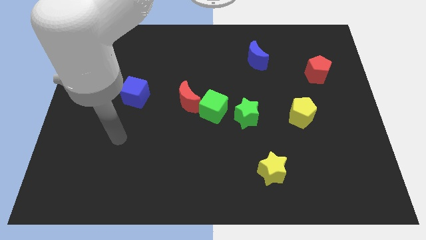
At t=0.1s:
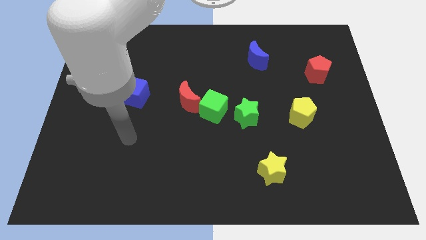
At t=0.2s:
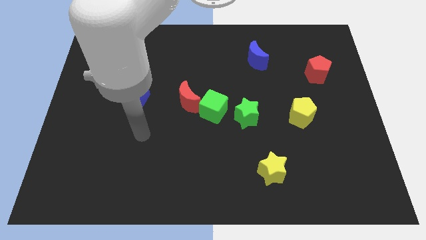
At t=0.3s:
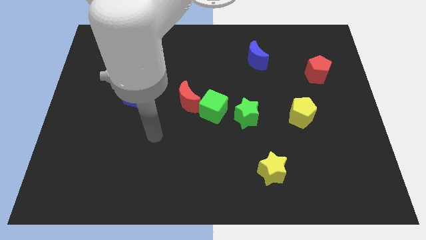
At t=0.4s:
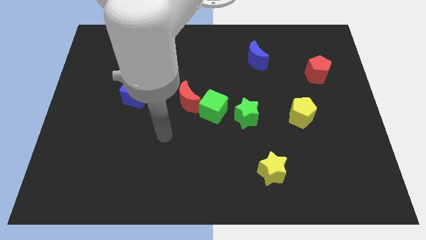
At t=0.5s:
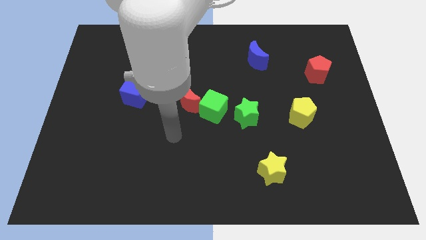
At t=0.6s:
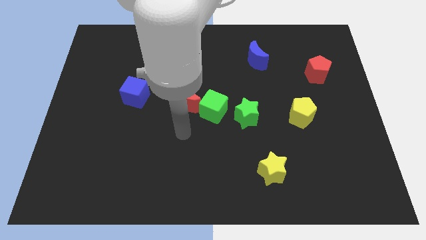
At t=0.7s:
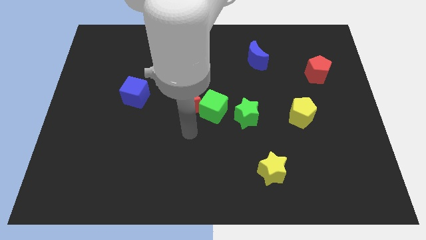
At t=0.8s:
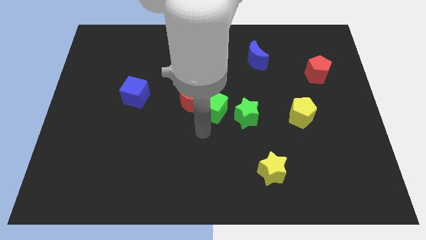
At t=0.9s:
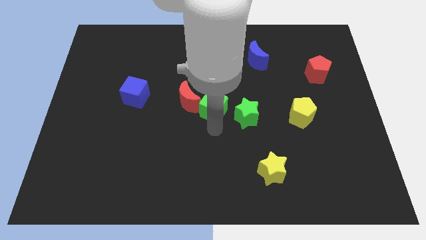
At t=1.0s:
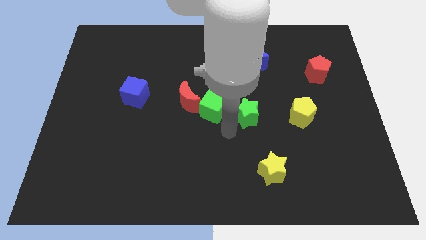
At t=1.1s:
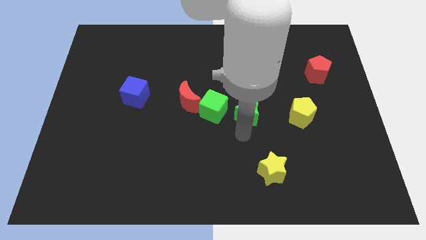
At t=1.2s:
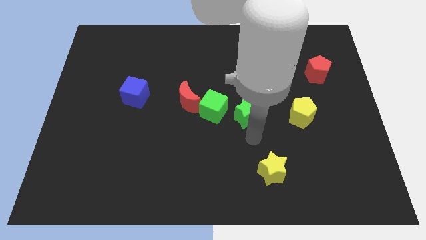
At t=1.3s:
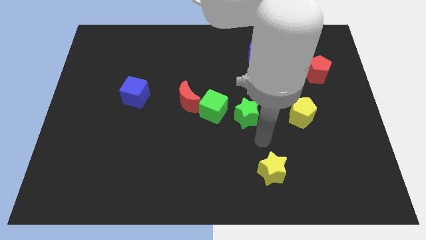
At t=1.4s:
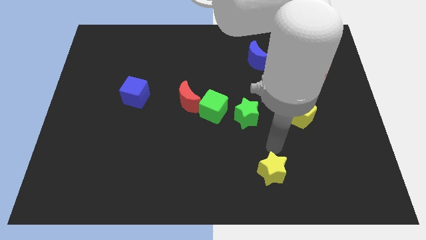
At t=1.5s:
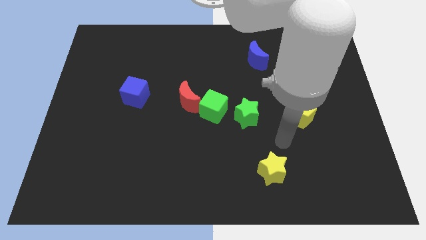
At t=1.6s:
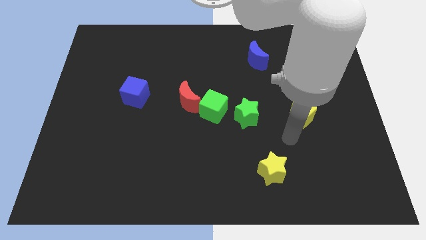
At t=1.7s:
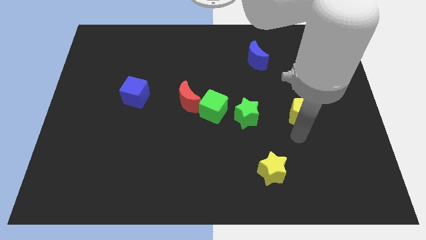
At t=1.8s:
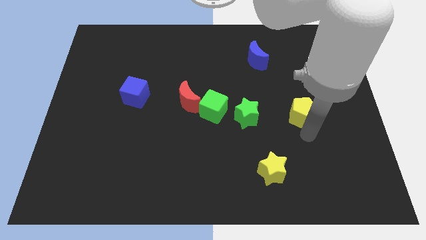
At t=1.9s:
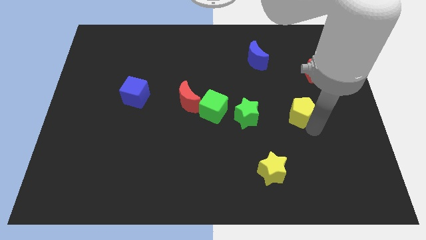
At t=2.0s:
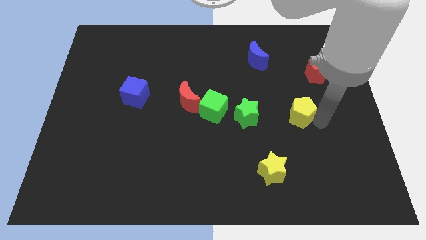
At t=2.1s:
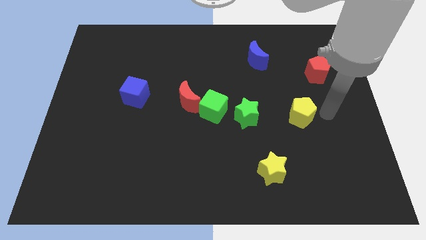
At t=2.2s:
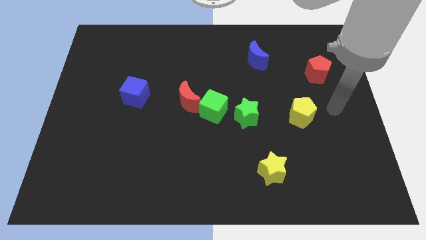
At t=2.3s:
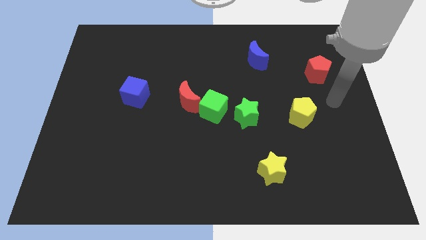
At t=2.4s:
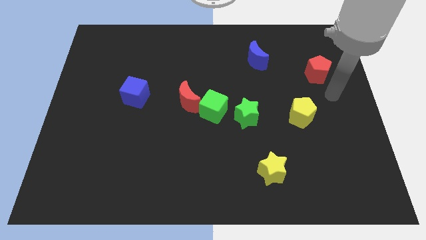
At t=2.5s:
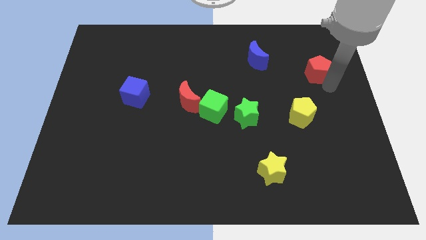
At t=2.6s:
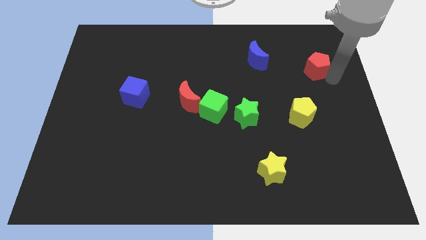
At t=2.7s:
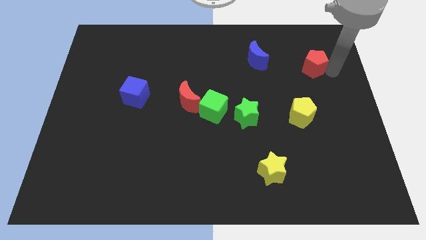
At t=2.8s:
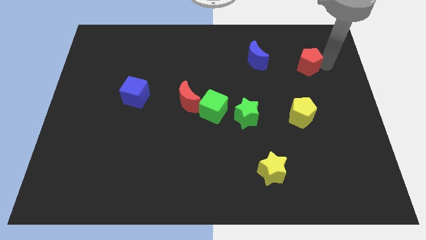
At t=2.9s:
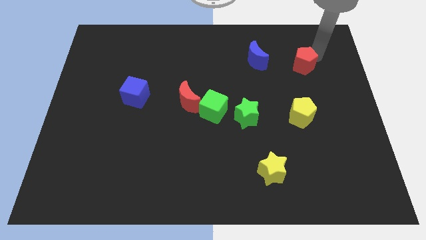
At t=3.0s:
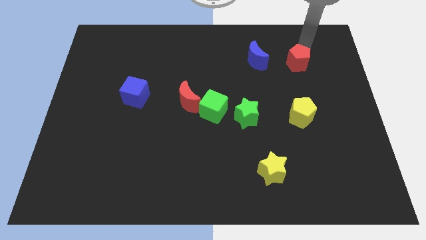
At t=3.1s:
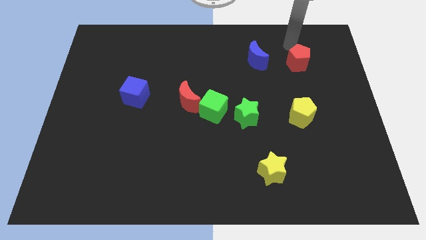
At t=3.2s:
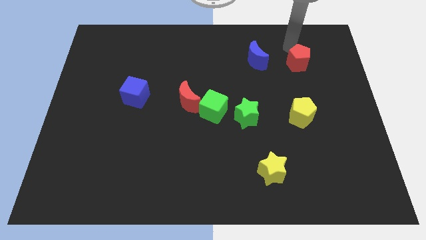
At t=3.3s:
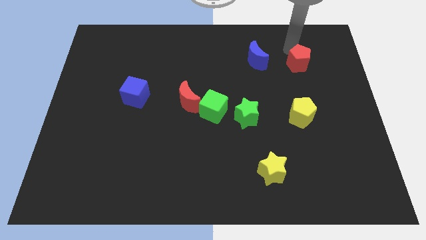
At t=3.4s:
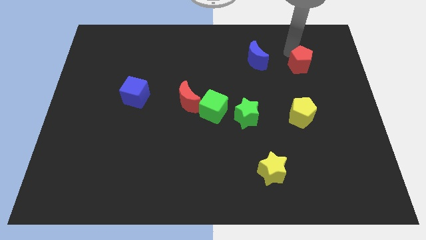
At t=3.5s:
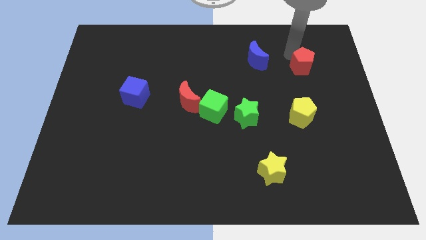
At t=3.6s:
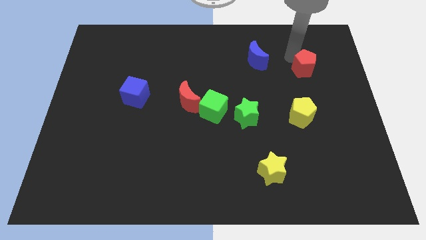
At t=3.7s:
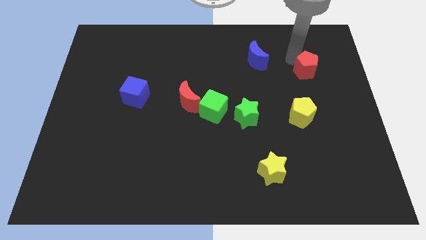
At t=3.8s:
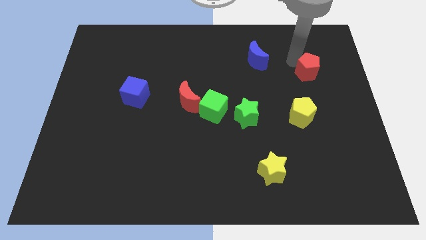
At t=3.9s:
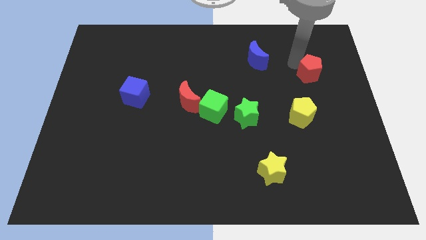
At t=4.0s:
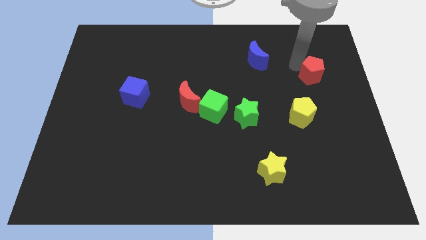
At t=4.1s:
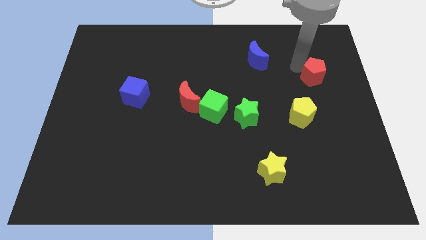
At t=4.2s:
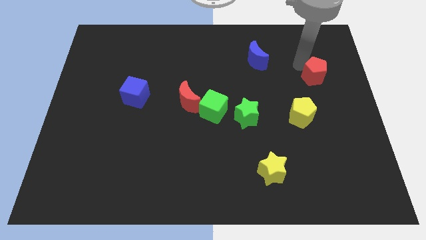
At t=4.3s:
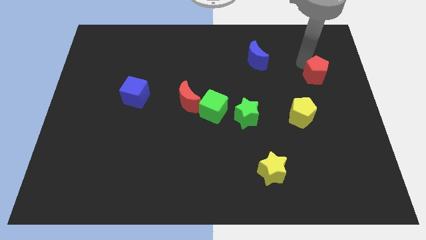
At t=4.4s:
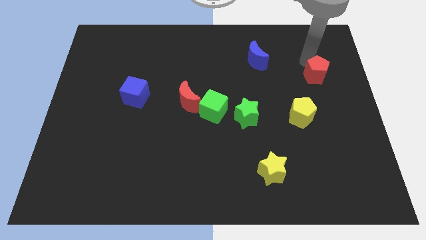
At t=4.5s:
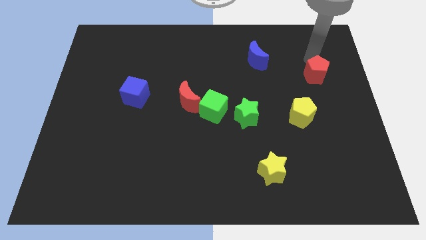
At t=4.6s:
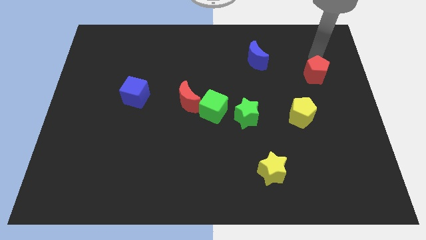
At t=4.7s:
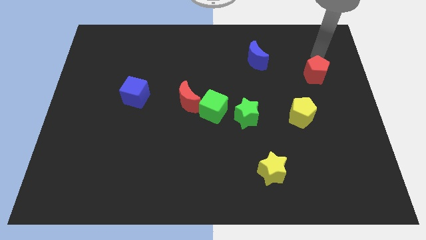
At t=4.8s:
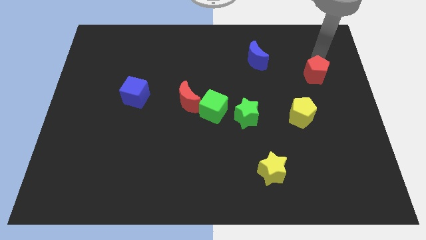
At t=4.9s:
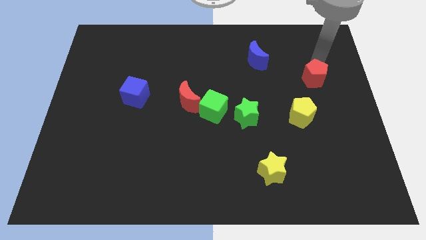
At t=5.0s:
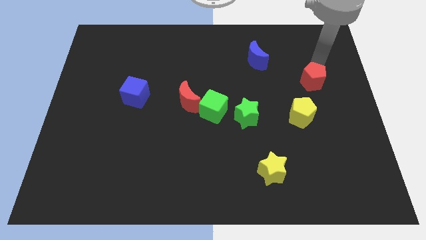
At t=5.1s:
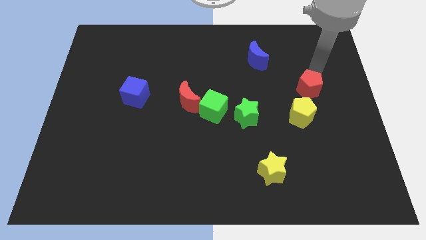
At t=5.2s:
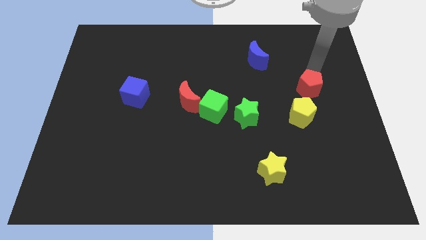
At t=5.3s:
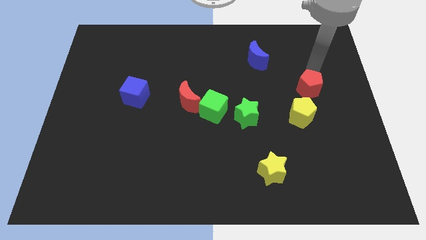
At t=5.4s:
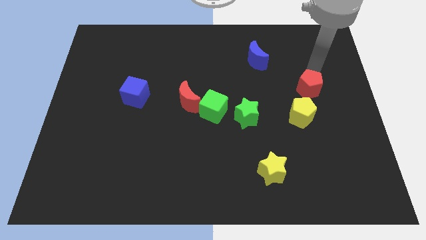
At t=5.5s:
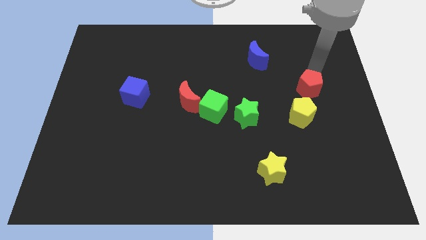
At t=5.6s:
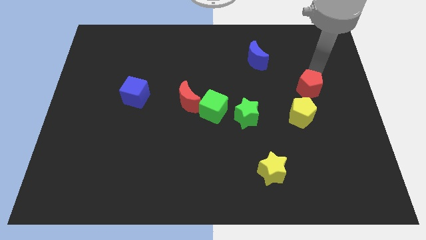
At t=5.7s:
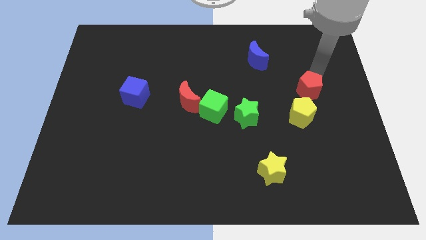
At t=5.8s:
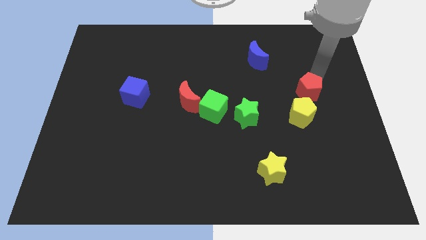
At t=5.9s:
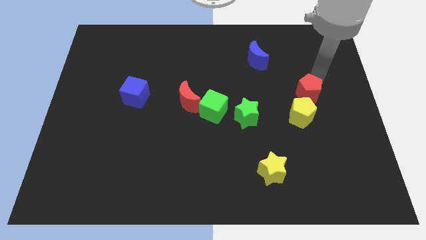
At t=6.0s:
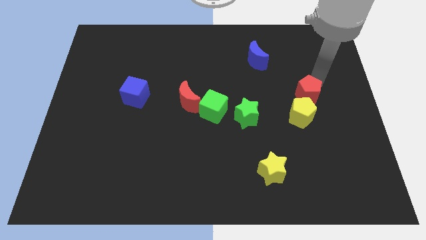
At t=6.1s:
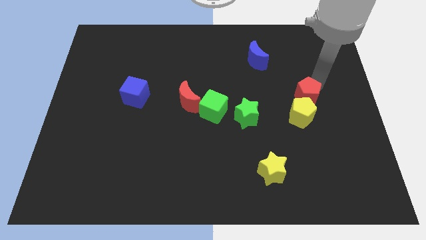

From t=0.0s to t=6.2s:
slide the red pentagon close to the yellow pentagon

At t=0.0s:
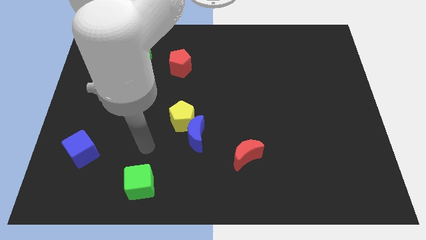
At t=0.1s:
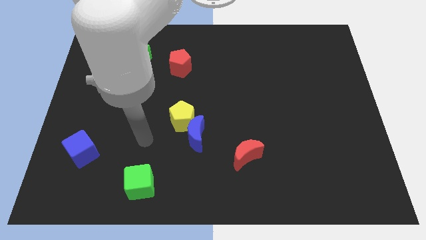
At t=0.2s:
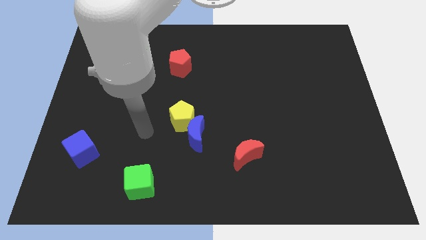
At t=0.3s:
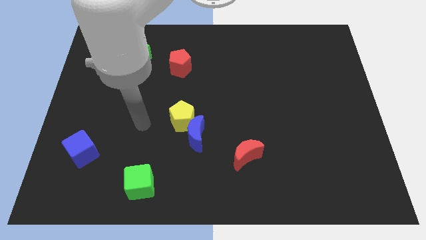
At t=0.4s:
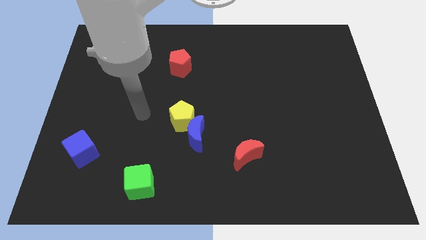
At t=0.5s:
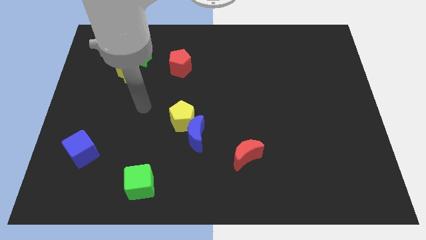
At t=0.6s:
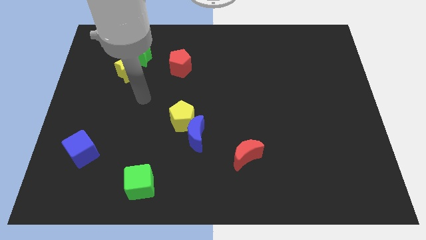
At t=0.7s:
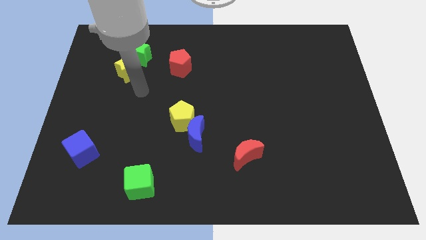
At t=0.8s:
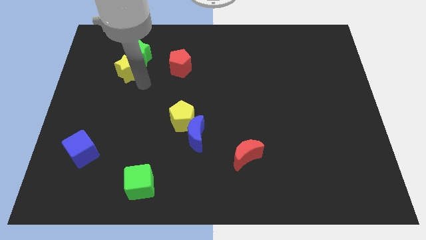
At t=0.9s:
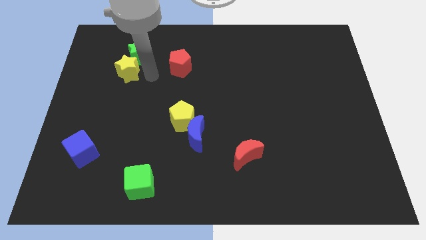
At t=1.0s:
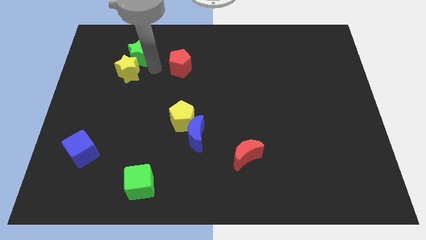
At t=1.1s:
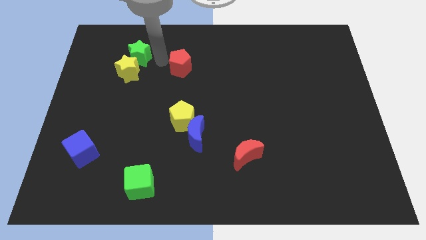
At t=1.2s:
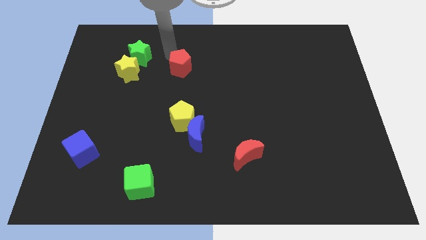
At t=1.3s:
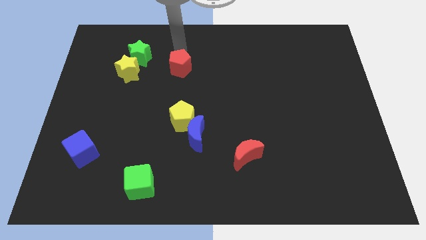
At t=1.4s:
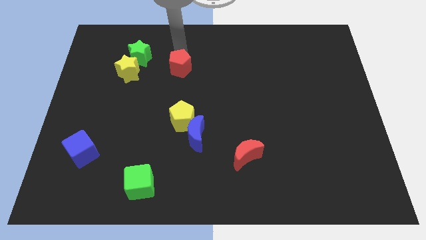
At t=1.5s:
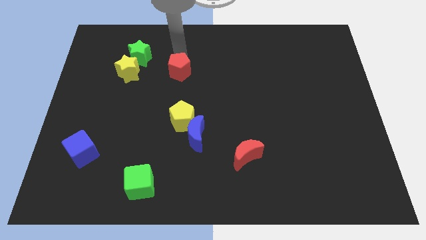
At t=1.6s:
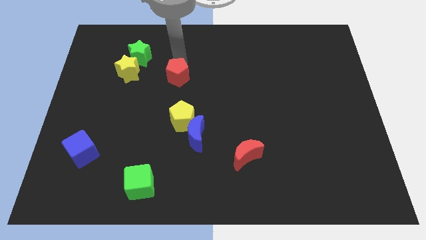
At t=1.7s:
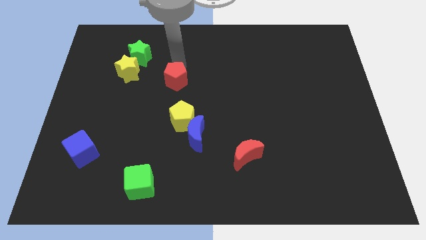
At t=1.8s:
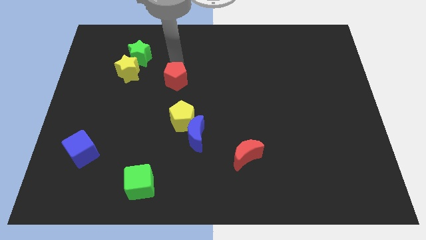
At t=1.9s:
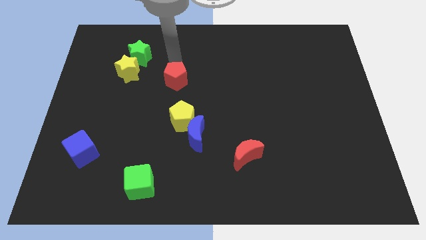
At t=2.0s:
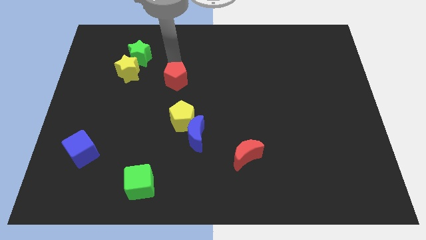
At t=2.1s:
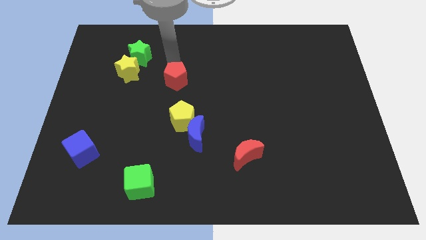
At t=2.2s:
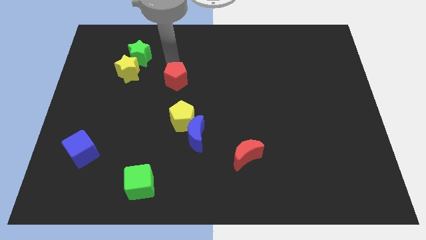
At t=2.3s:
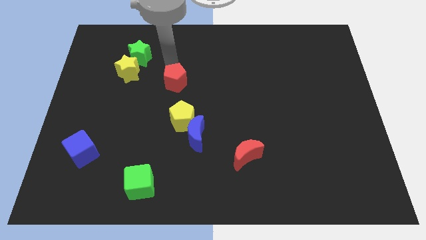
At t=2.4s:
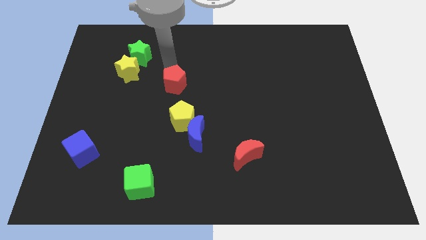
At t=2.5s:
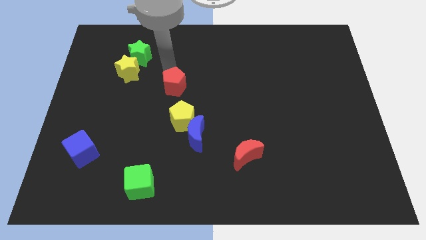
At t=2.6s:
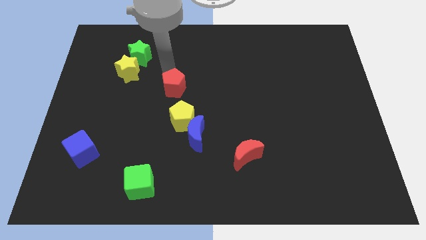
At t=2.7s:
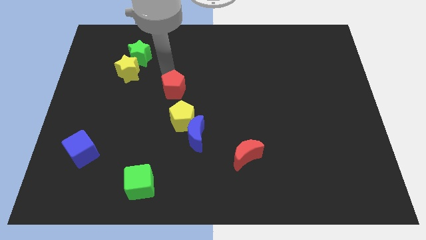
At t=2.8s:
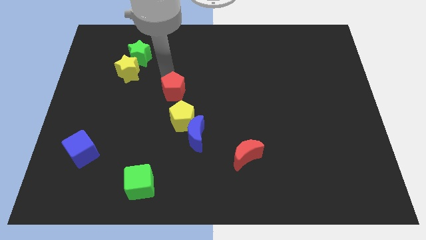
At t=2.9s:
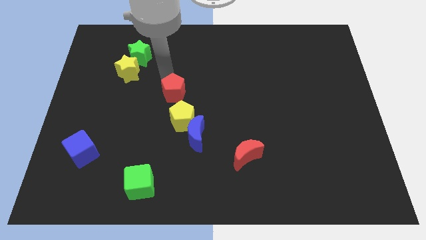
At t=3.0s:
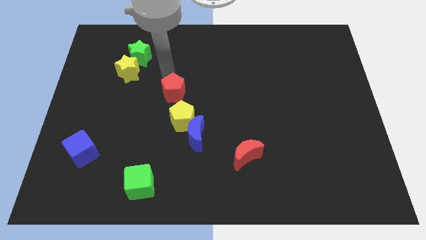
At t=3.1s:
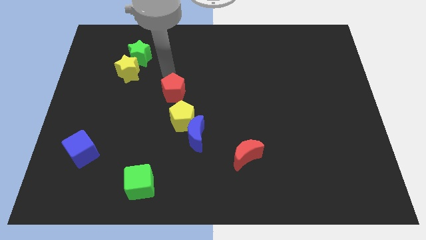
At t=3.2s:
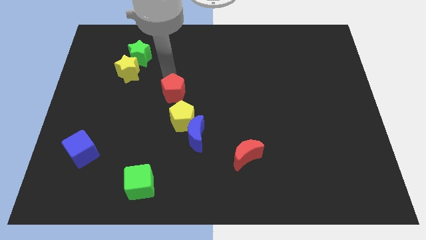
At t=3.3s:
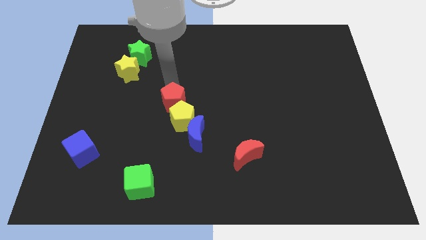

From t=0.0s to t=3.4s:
push the red pentagon towards the yellow pentagon
